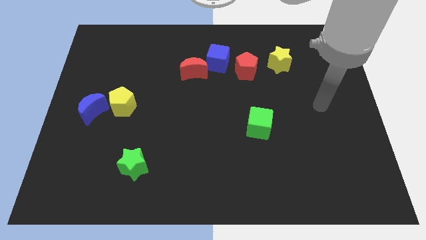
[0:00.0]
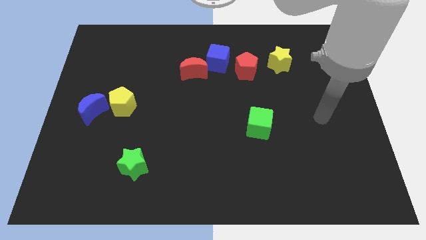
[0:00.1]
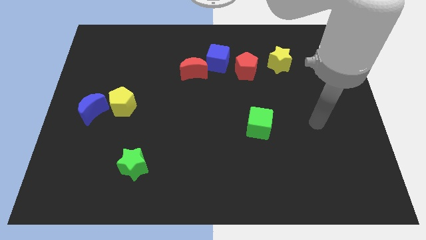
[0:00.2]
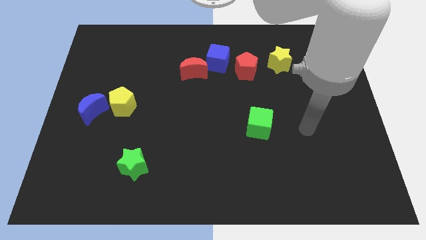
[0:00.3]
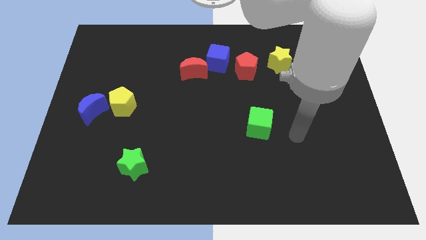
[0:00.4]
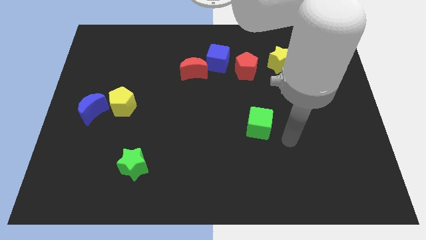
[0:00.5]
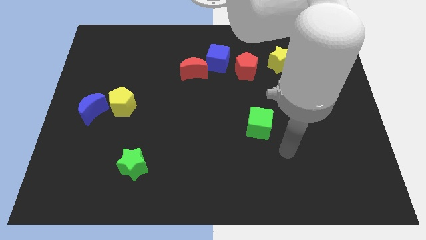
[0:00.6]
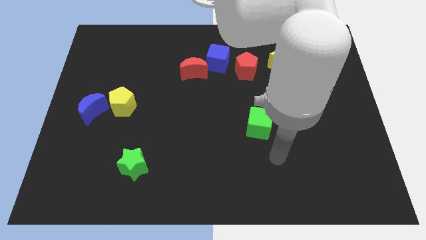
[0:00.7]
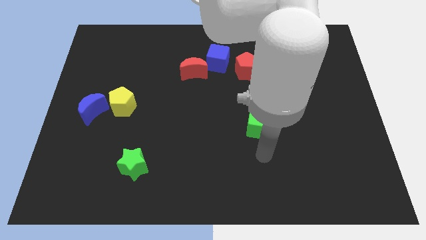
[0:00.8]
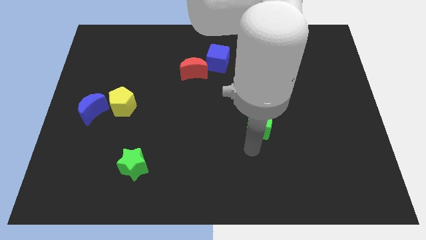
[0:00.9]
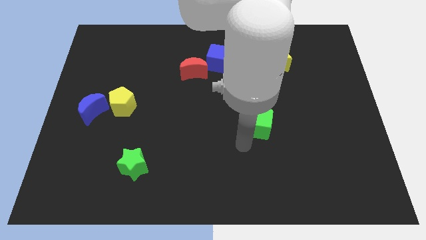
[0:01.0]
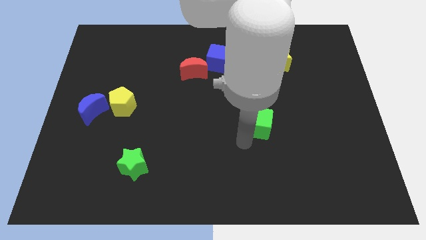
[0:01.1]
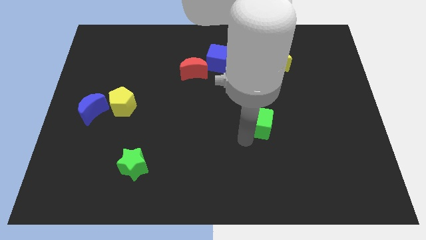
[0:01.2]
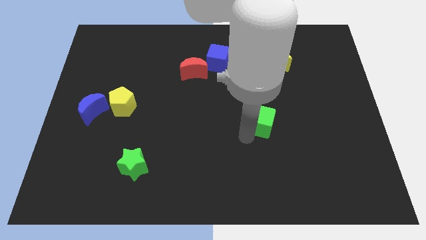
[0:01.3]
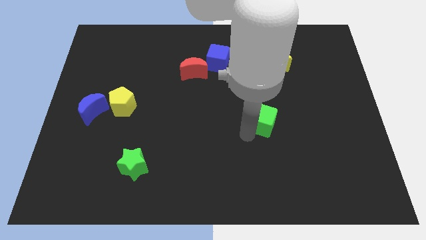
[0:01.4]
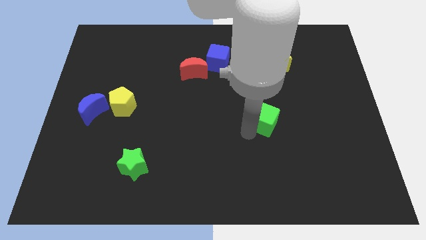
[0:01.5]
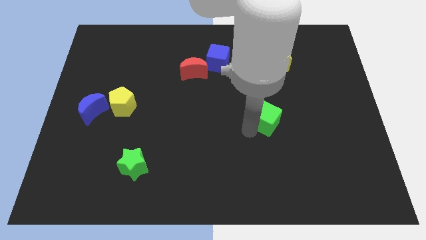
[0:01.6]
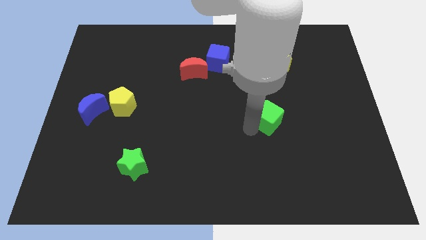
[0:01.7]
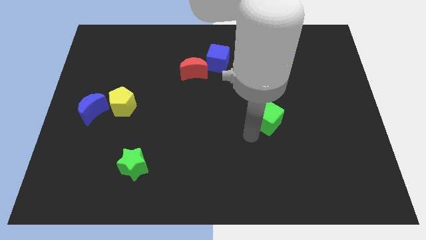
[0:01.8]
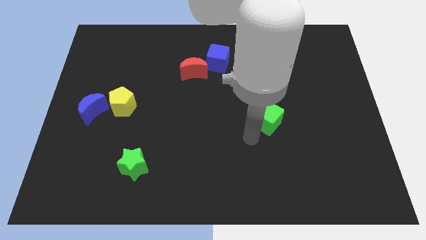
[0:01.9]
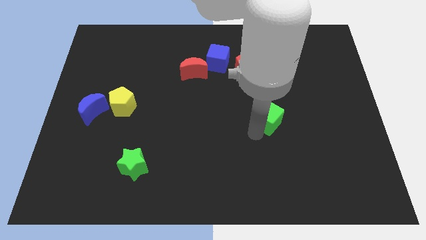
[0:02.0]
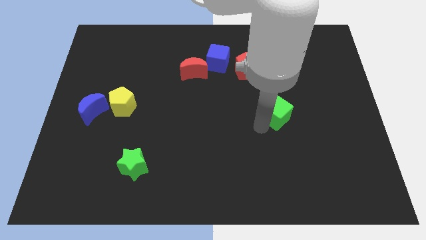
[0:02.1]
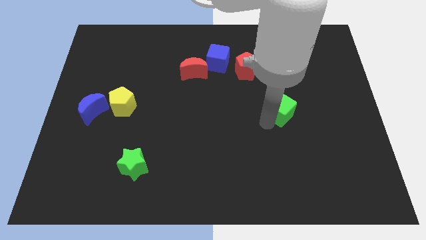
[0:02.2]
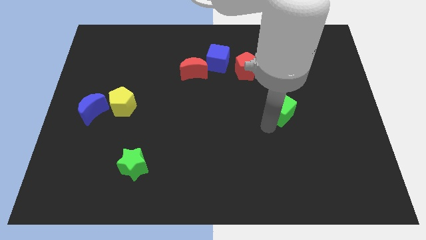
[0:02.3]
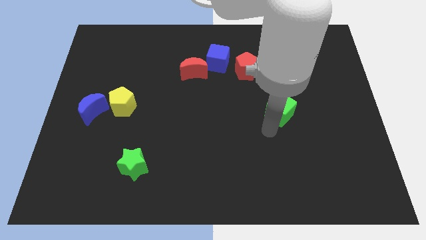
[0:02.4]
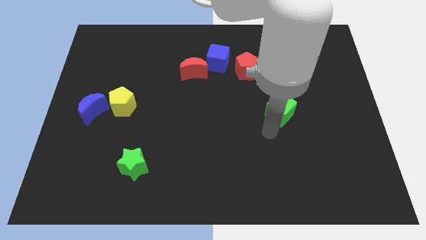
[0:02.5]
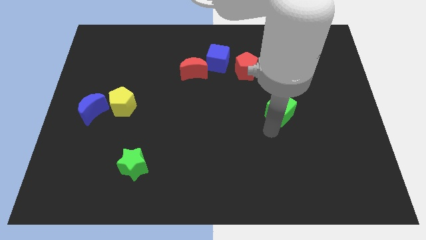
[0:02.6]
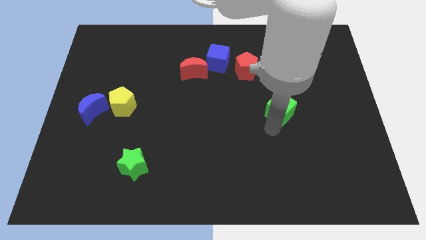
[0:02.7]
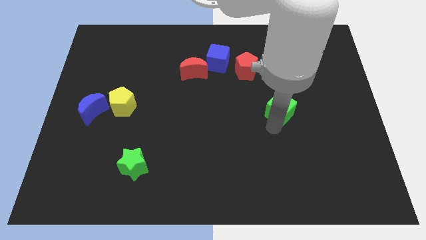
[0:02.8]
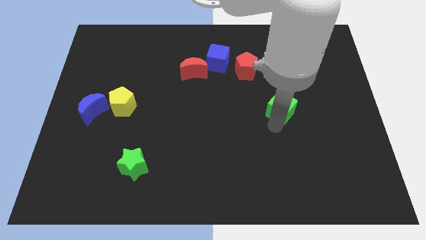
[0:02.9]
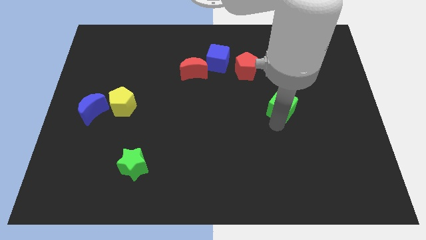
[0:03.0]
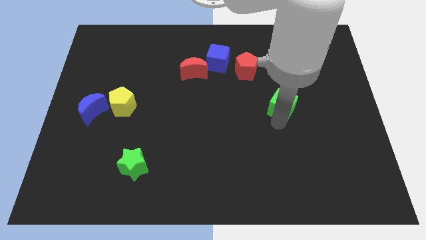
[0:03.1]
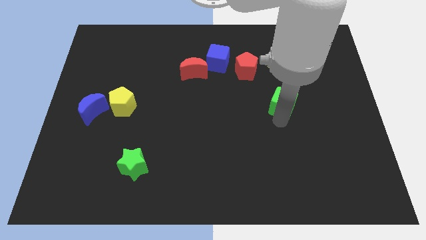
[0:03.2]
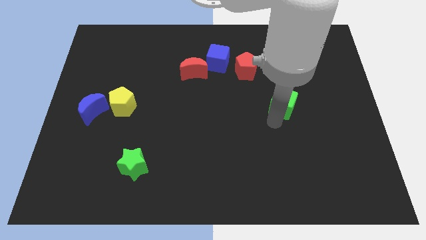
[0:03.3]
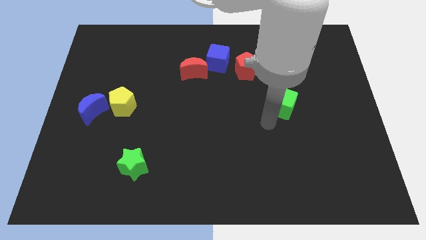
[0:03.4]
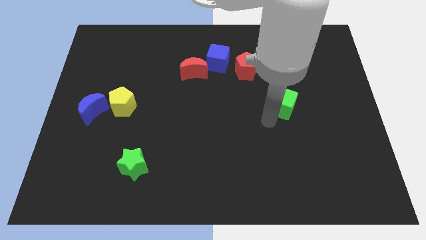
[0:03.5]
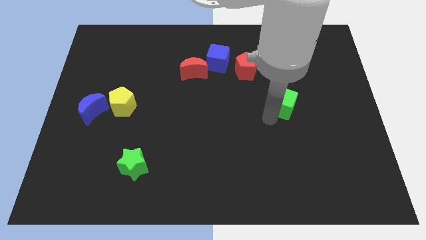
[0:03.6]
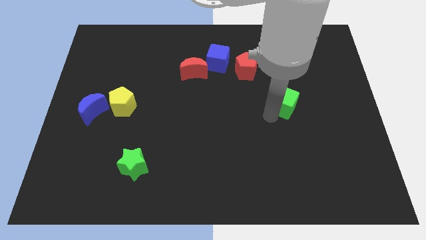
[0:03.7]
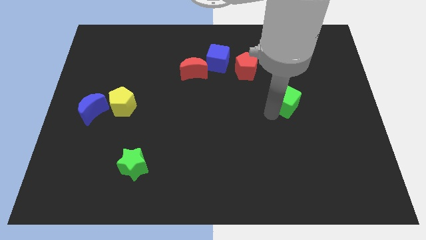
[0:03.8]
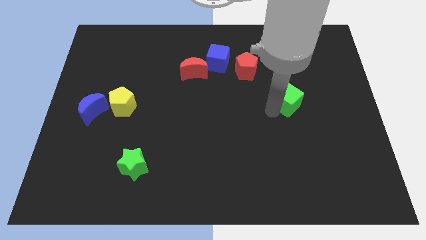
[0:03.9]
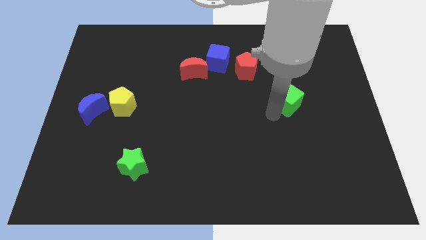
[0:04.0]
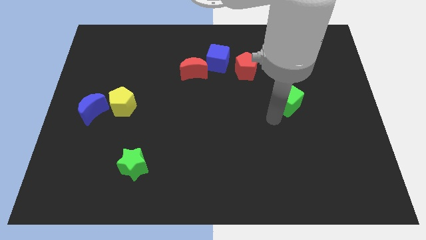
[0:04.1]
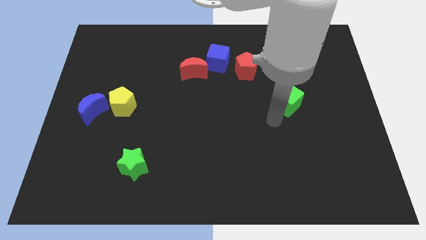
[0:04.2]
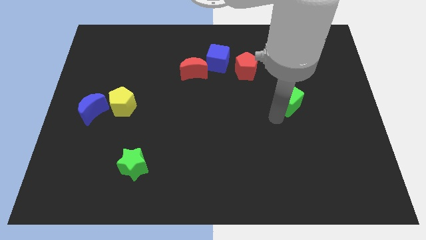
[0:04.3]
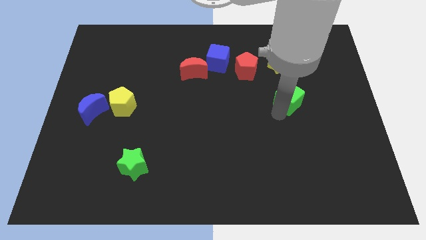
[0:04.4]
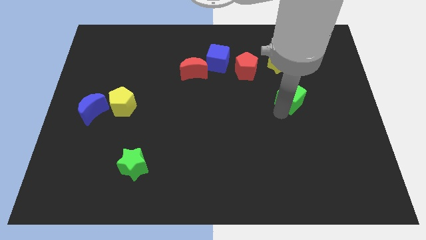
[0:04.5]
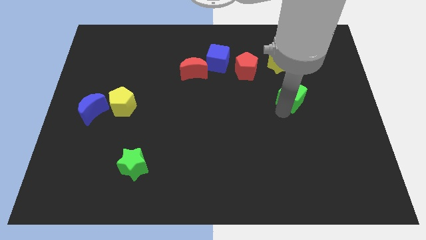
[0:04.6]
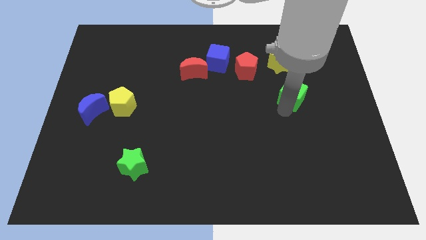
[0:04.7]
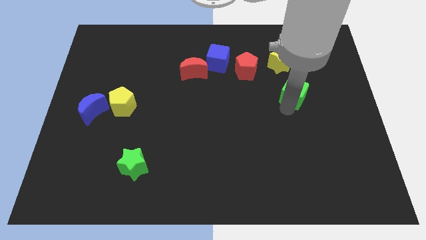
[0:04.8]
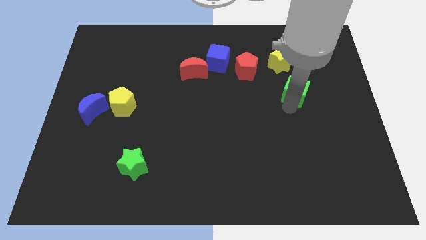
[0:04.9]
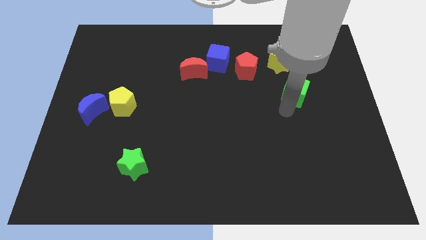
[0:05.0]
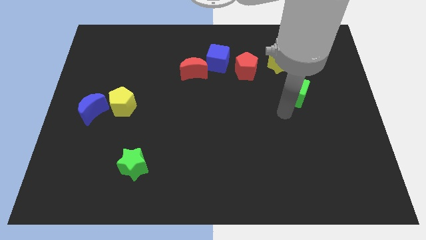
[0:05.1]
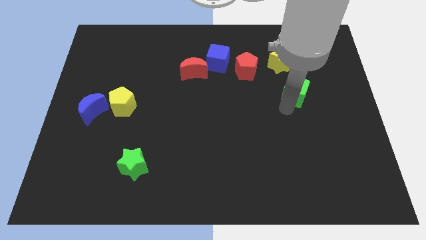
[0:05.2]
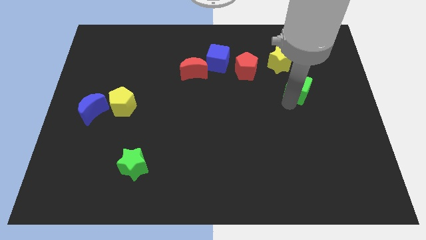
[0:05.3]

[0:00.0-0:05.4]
push the green cube diagonally down and to the right of the yellow star

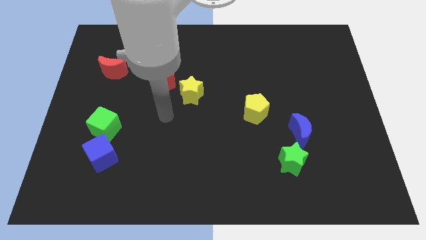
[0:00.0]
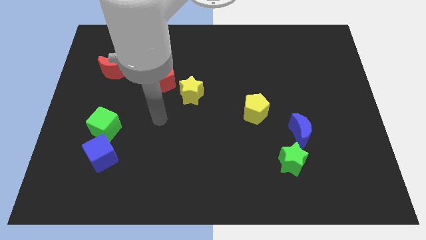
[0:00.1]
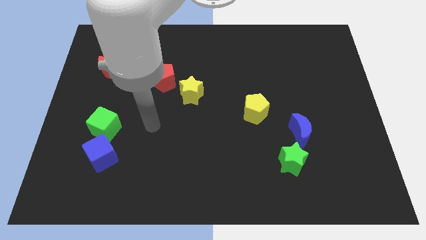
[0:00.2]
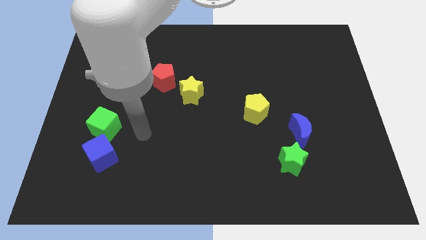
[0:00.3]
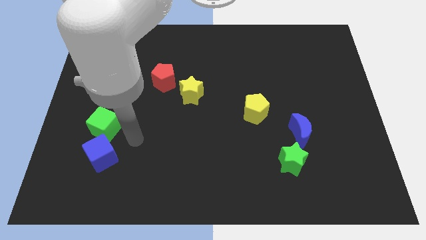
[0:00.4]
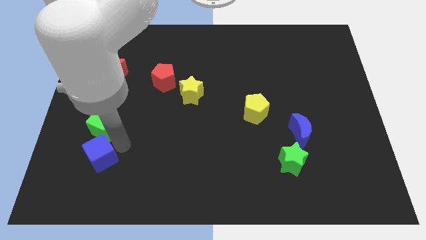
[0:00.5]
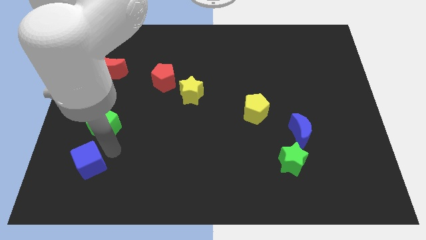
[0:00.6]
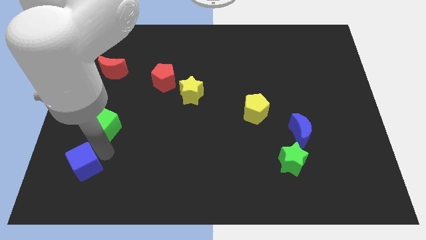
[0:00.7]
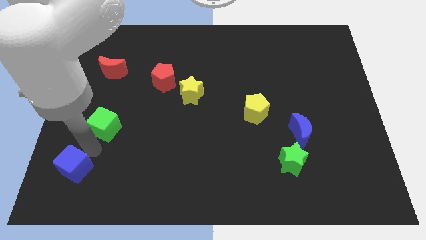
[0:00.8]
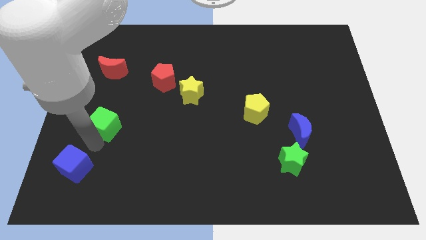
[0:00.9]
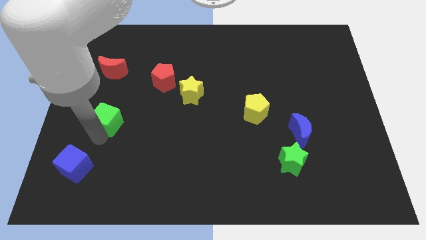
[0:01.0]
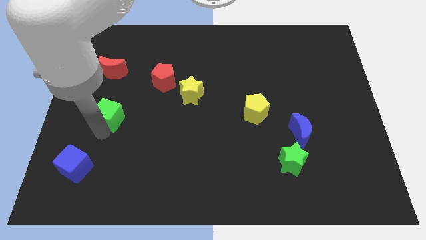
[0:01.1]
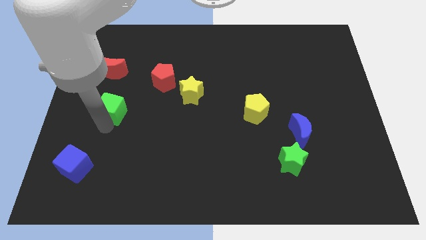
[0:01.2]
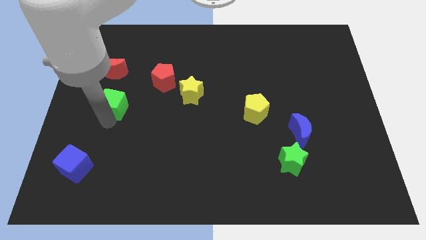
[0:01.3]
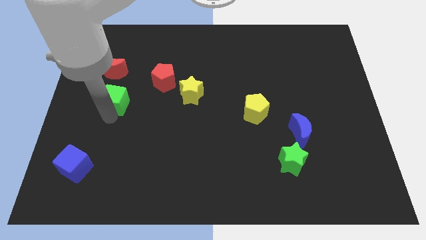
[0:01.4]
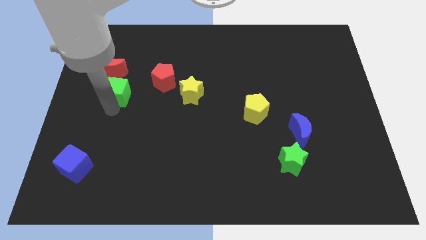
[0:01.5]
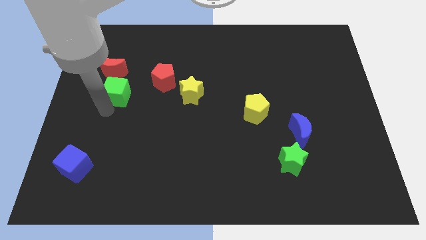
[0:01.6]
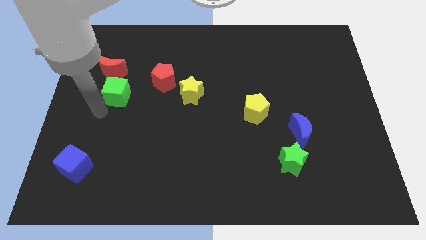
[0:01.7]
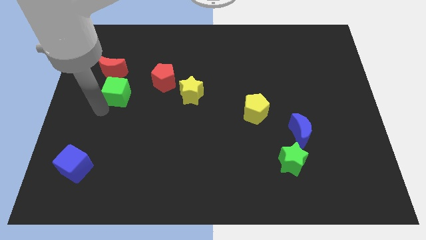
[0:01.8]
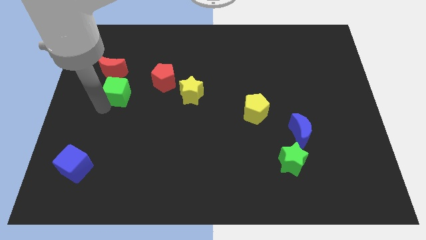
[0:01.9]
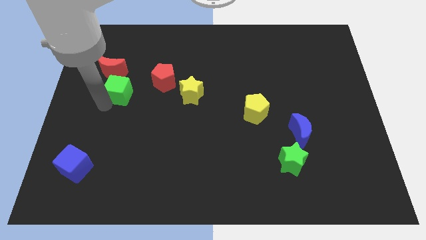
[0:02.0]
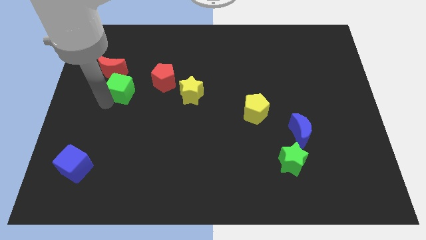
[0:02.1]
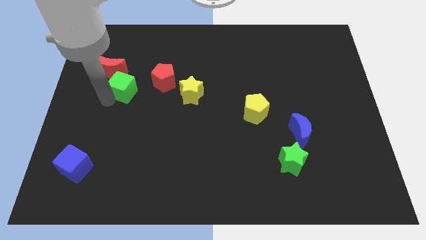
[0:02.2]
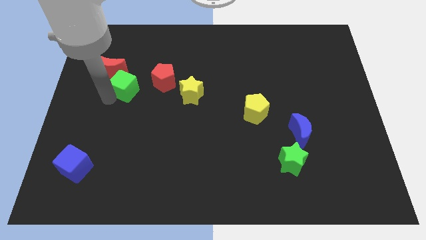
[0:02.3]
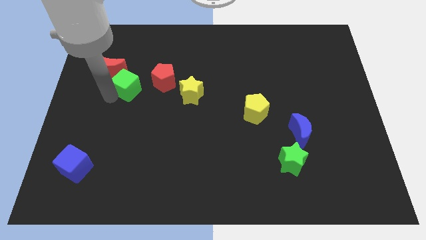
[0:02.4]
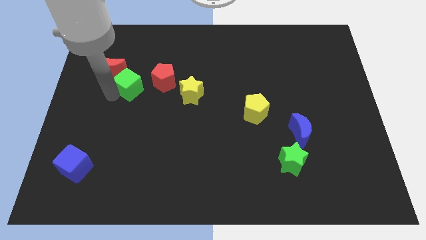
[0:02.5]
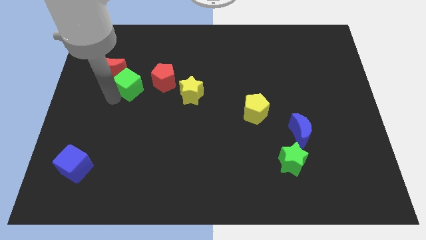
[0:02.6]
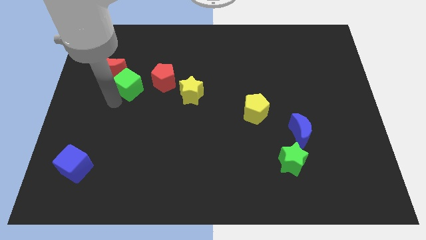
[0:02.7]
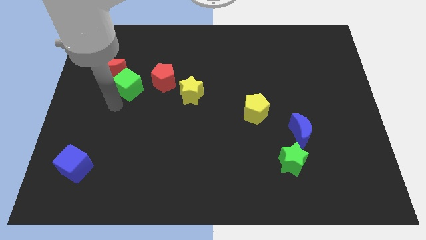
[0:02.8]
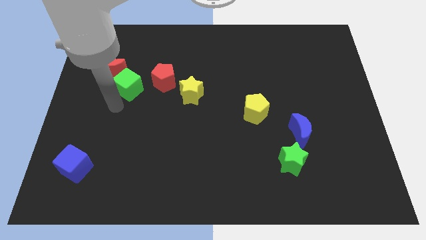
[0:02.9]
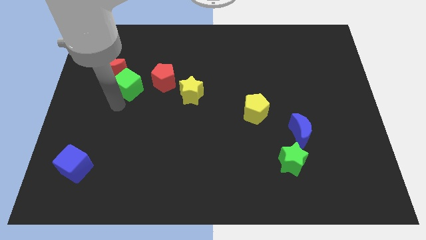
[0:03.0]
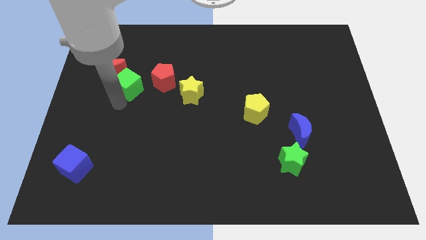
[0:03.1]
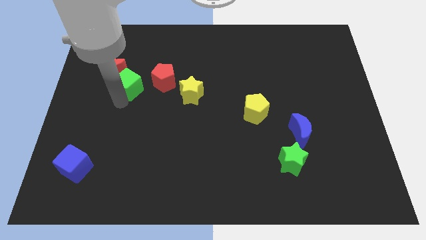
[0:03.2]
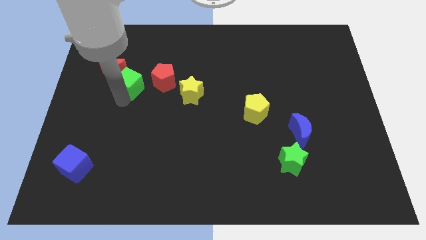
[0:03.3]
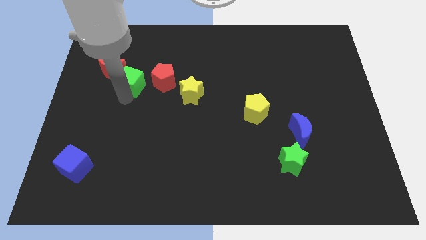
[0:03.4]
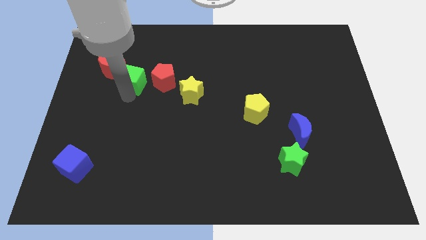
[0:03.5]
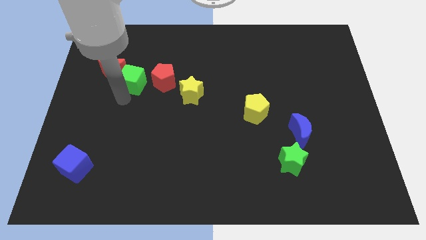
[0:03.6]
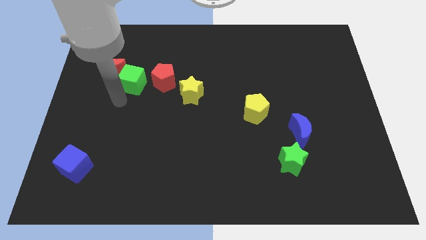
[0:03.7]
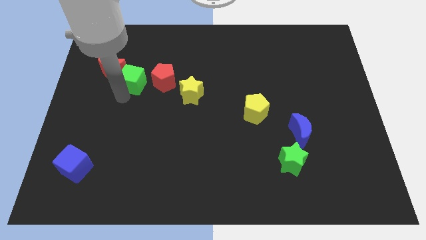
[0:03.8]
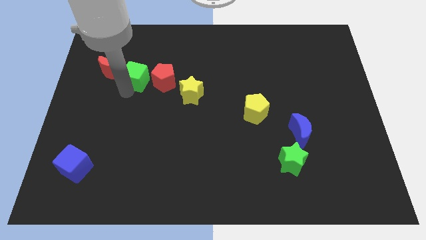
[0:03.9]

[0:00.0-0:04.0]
put the green cube diagonally up and to the left of the red pentagon
